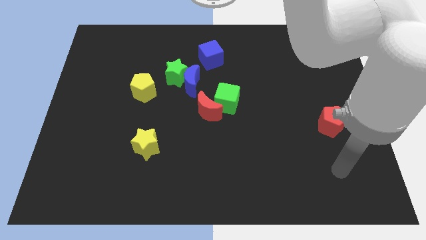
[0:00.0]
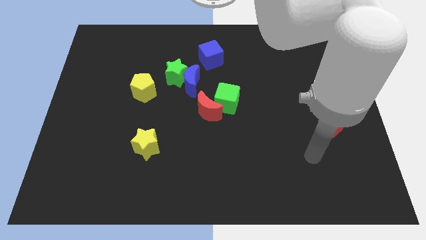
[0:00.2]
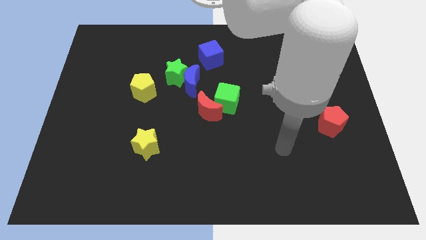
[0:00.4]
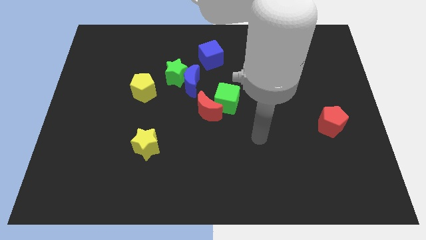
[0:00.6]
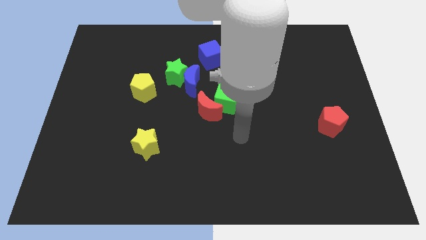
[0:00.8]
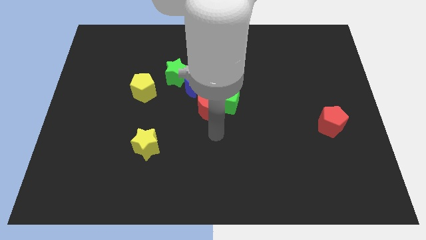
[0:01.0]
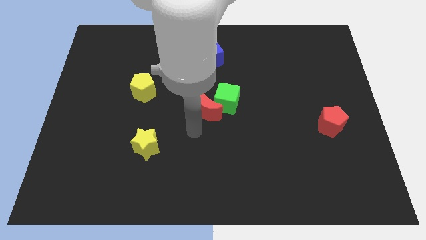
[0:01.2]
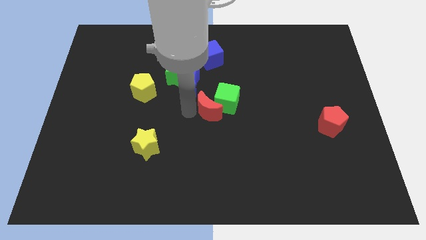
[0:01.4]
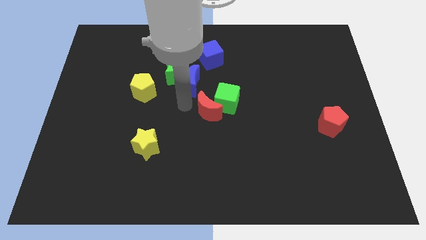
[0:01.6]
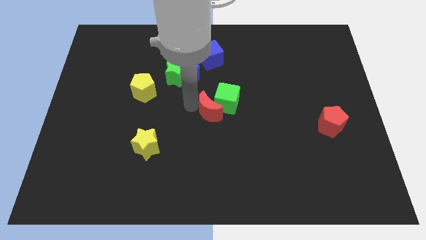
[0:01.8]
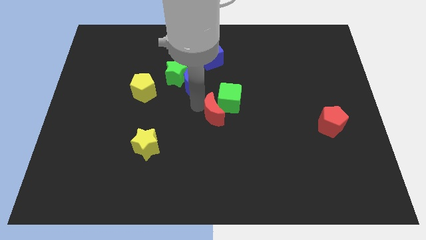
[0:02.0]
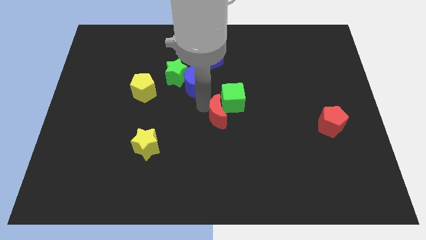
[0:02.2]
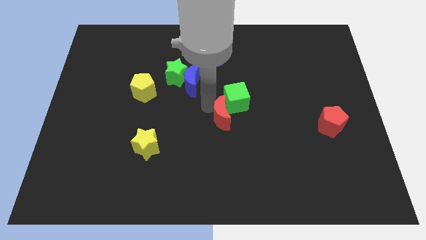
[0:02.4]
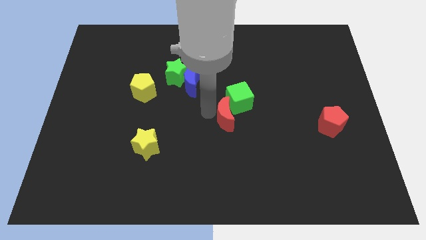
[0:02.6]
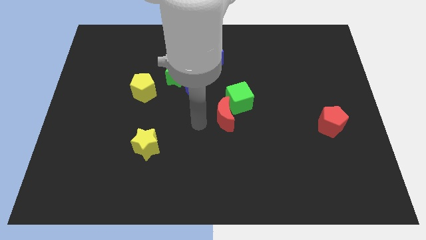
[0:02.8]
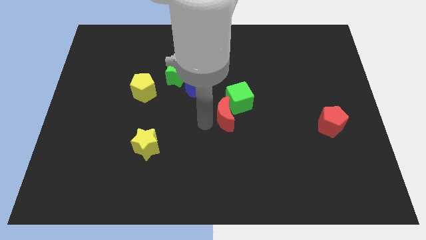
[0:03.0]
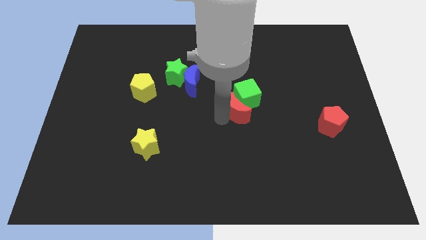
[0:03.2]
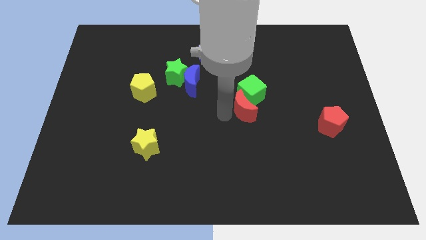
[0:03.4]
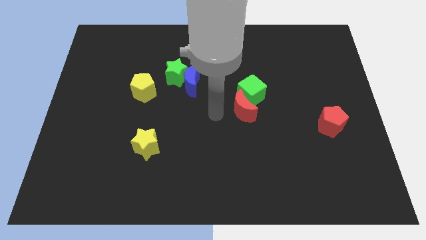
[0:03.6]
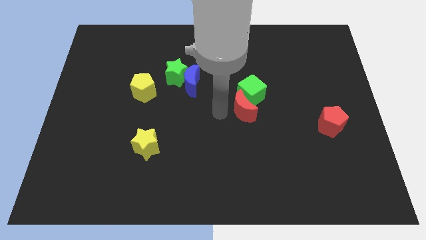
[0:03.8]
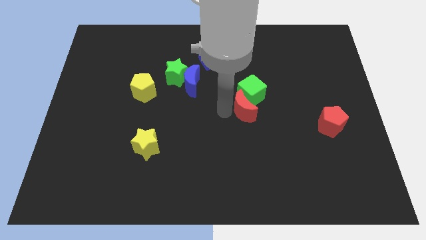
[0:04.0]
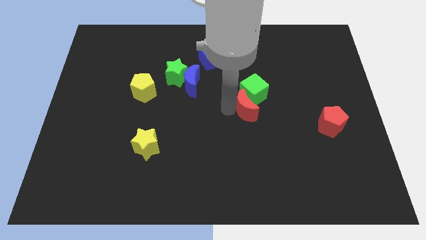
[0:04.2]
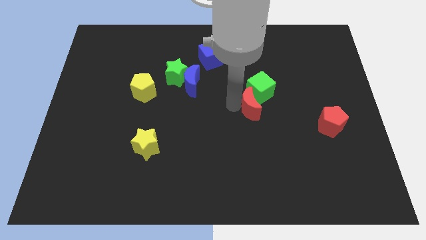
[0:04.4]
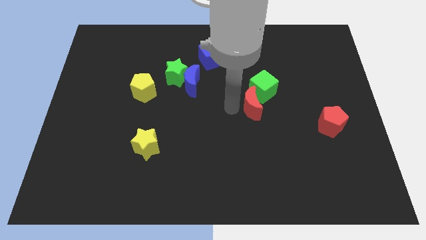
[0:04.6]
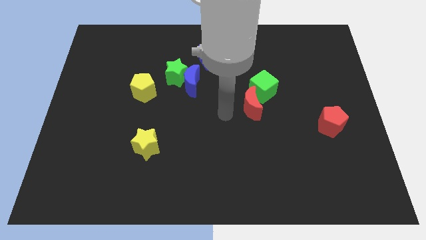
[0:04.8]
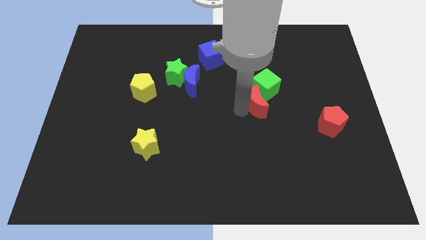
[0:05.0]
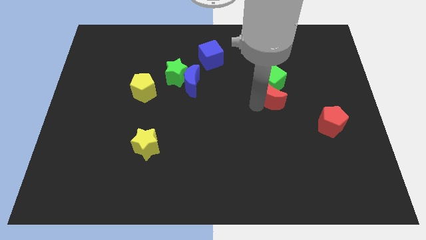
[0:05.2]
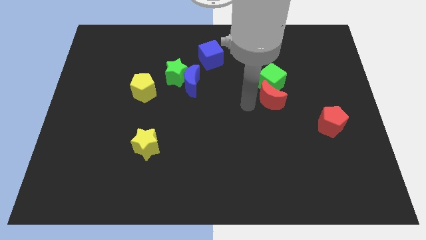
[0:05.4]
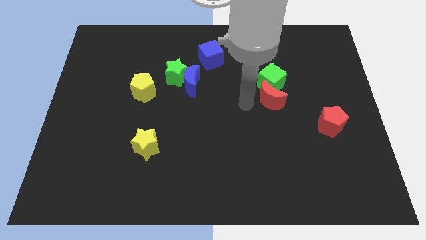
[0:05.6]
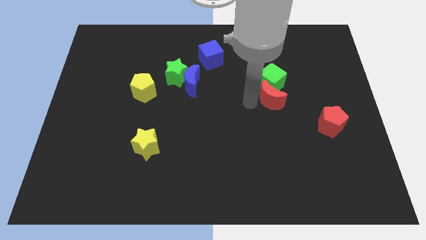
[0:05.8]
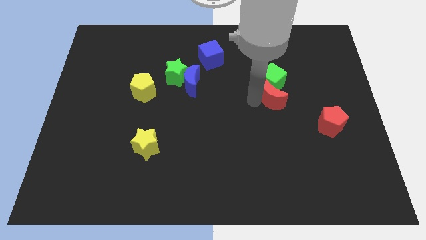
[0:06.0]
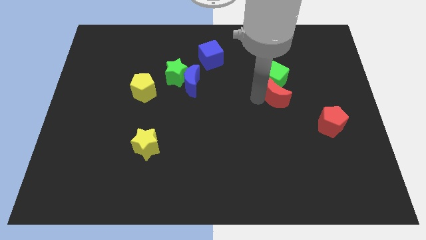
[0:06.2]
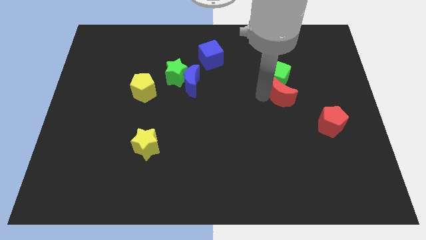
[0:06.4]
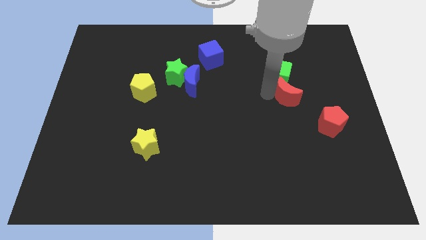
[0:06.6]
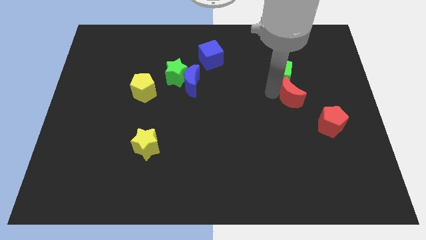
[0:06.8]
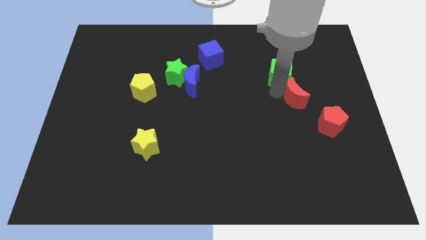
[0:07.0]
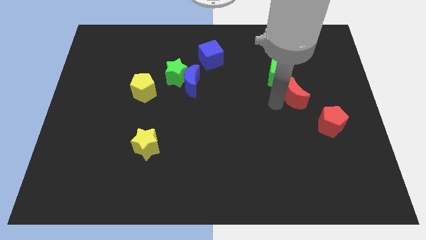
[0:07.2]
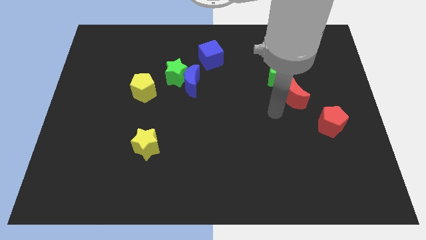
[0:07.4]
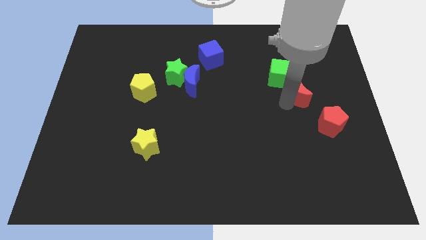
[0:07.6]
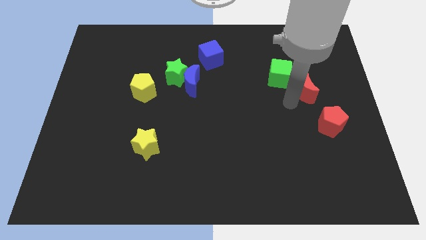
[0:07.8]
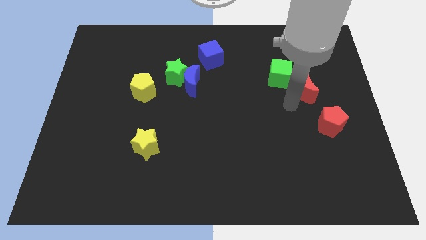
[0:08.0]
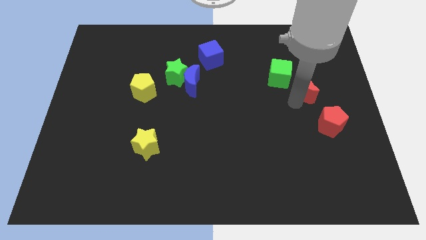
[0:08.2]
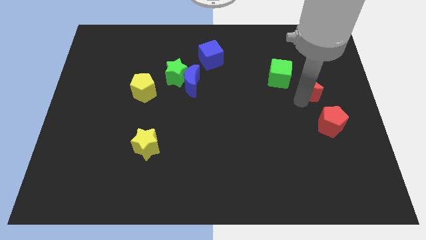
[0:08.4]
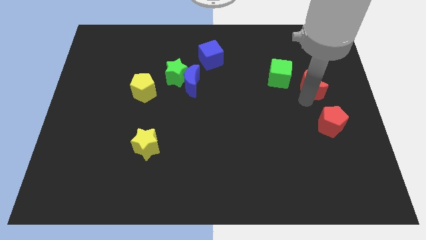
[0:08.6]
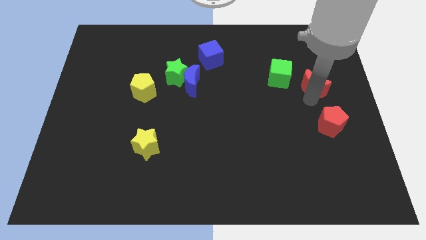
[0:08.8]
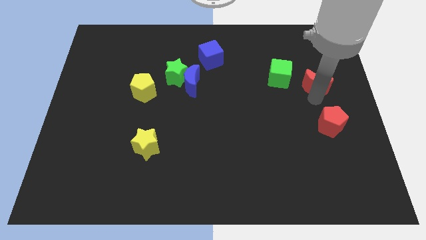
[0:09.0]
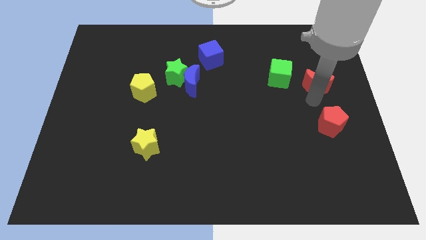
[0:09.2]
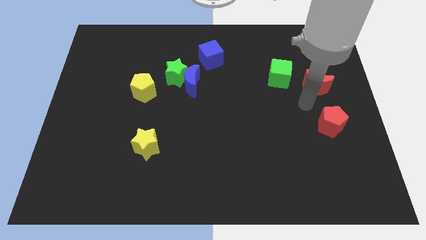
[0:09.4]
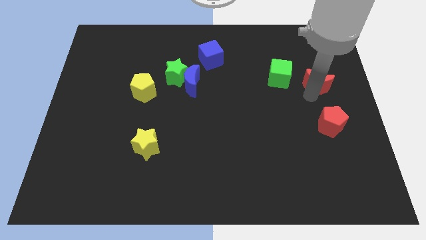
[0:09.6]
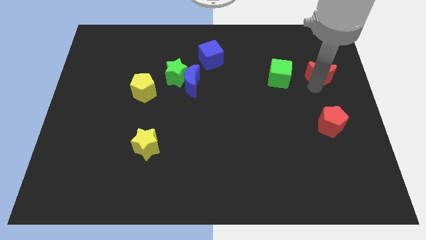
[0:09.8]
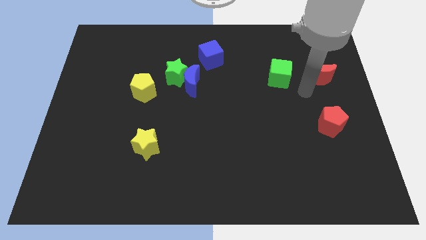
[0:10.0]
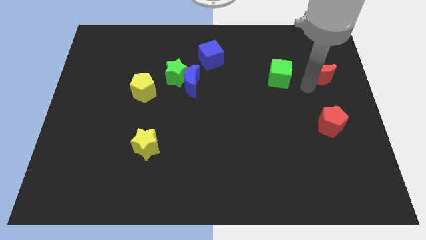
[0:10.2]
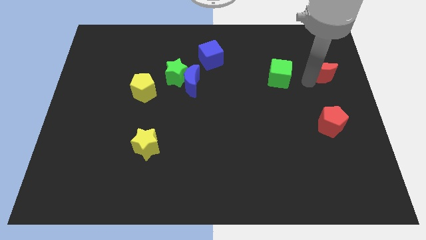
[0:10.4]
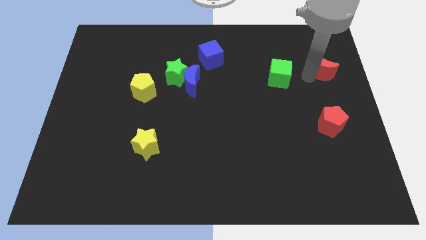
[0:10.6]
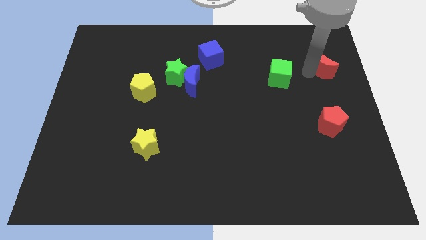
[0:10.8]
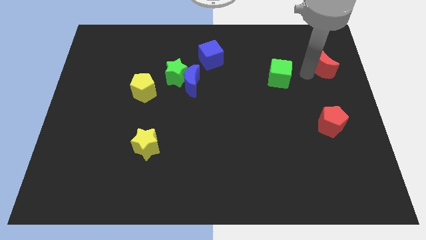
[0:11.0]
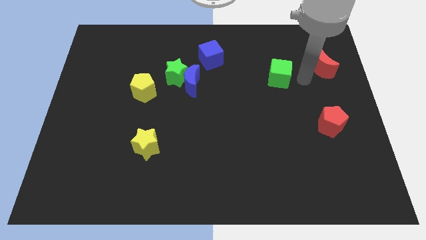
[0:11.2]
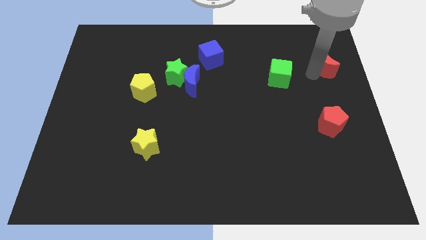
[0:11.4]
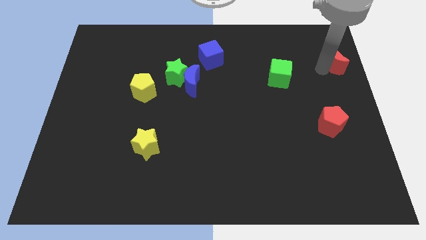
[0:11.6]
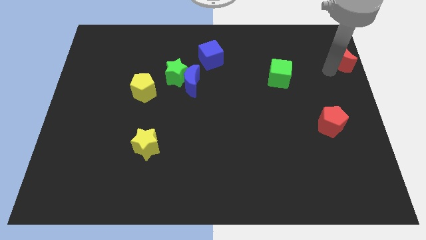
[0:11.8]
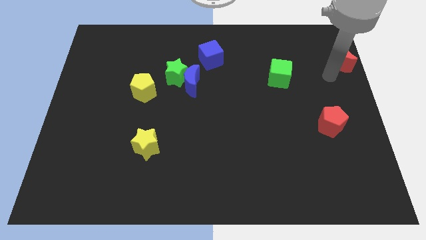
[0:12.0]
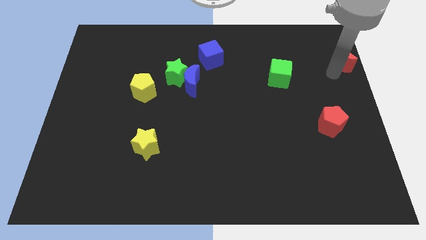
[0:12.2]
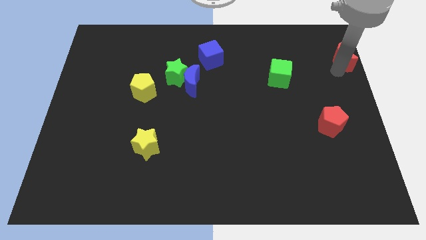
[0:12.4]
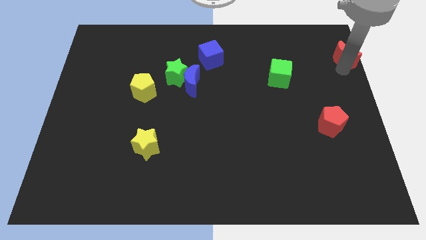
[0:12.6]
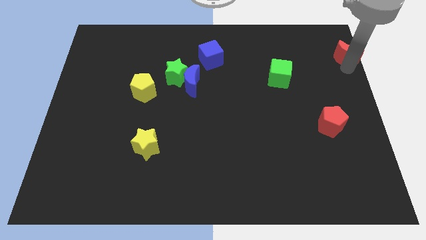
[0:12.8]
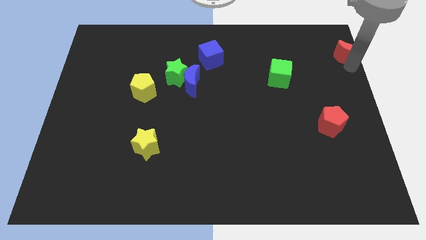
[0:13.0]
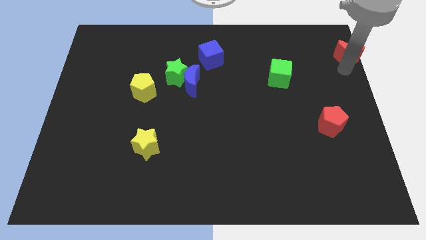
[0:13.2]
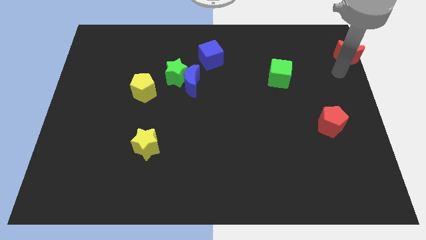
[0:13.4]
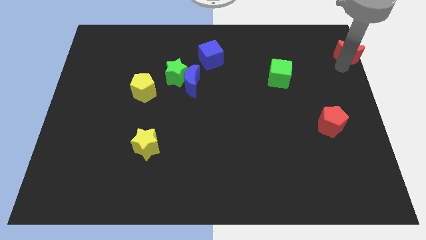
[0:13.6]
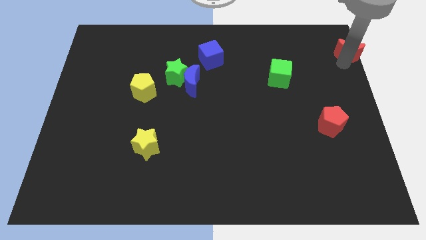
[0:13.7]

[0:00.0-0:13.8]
move the red moon to the top right corner

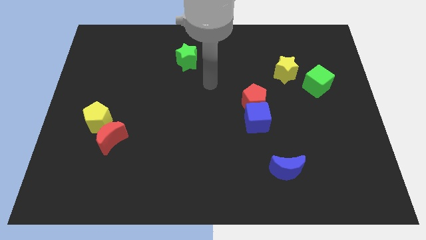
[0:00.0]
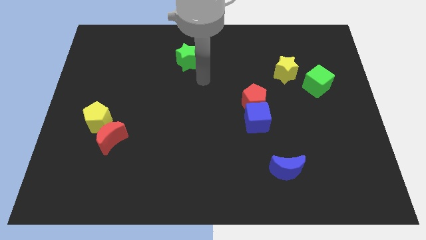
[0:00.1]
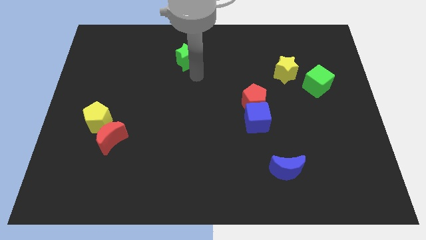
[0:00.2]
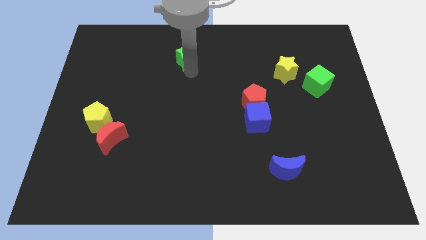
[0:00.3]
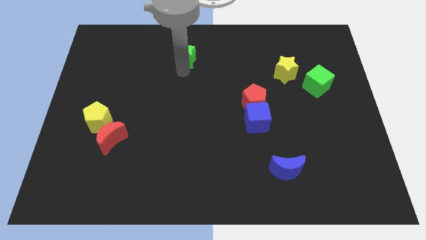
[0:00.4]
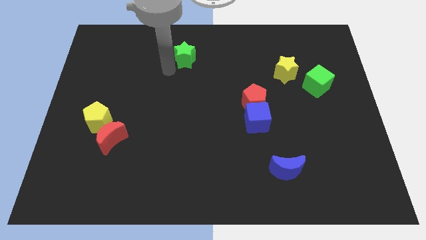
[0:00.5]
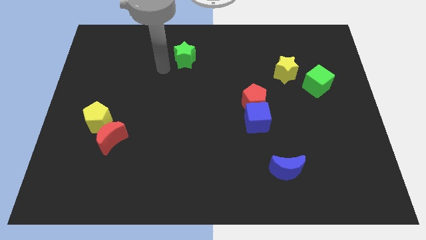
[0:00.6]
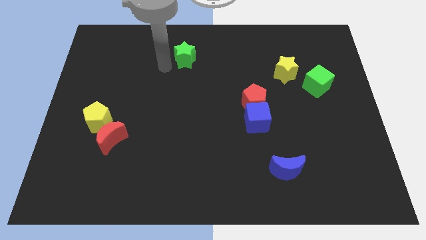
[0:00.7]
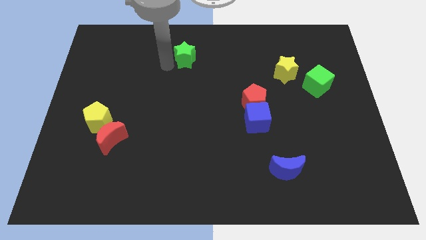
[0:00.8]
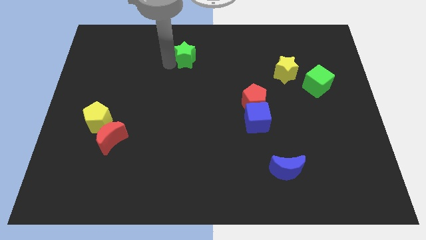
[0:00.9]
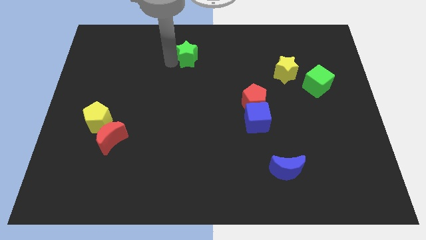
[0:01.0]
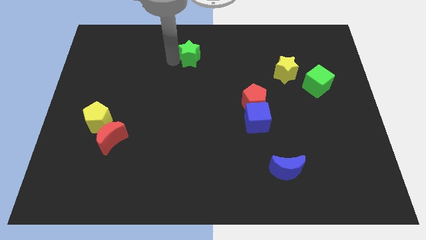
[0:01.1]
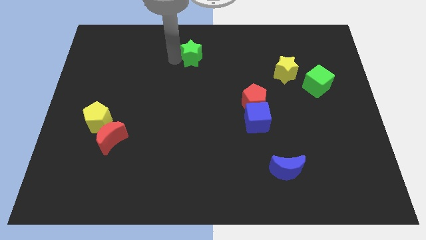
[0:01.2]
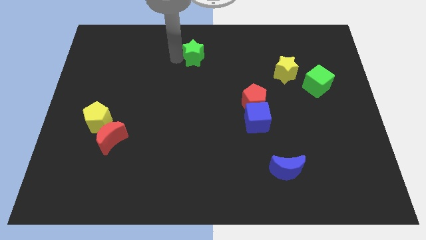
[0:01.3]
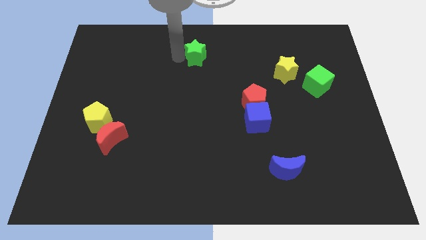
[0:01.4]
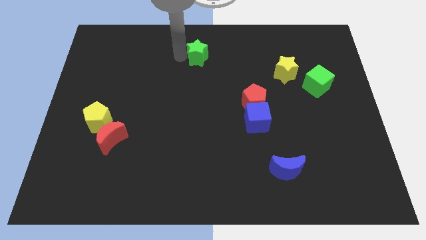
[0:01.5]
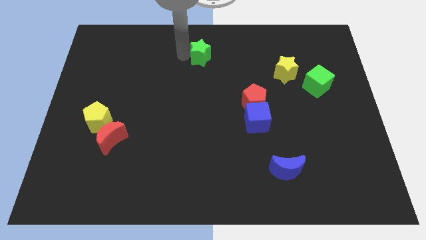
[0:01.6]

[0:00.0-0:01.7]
slide the green star to the top
